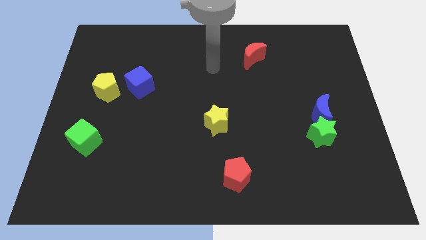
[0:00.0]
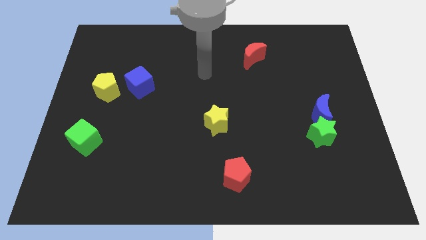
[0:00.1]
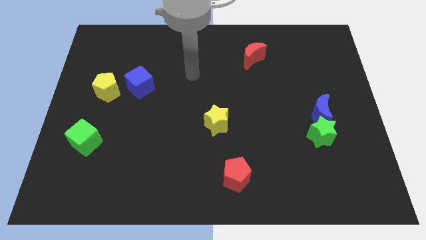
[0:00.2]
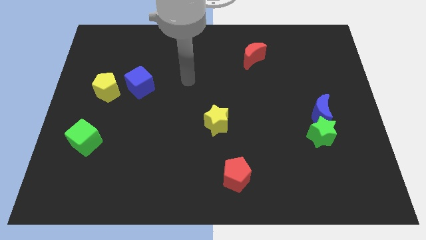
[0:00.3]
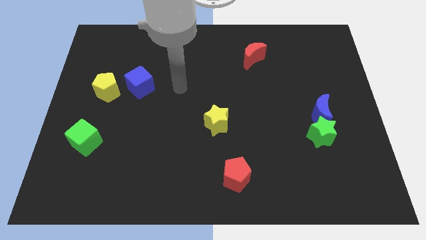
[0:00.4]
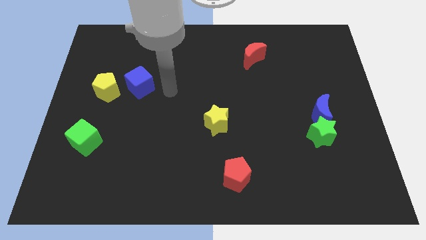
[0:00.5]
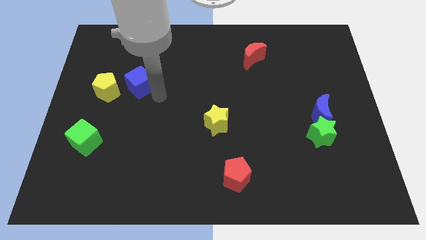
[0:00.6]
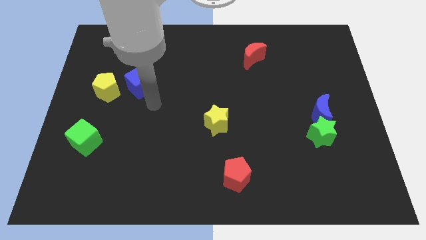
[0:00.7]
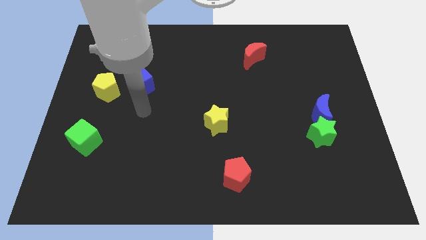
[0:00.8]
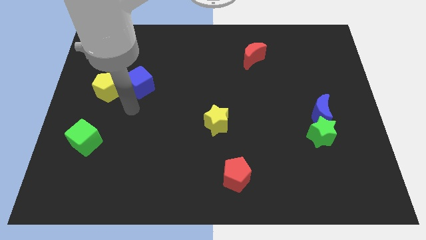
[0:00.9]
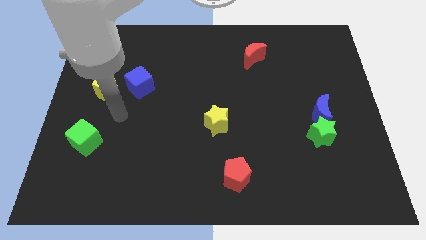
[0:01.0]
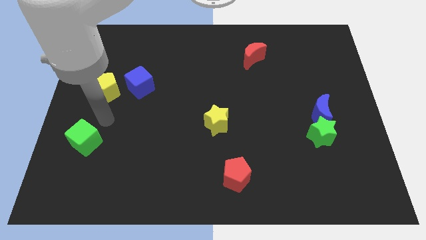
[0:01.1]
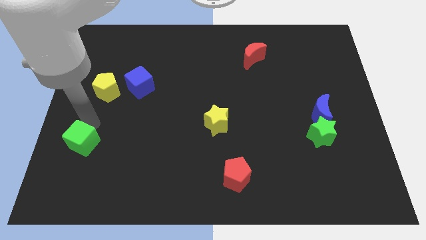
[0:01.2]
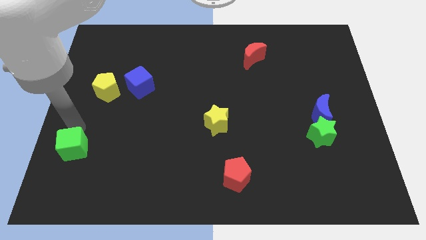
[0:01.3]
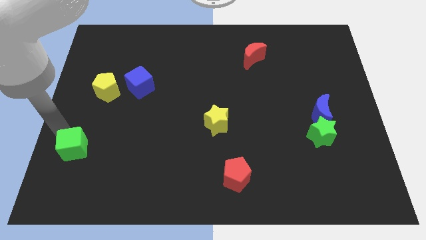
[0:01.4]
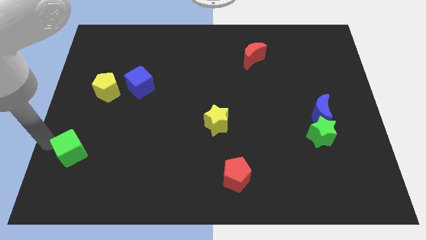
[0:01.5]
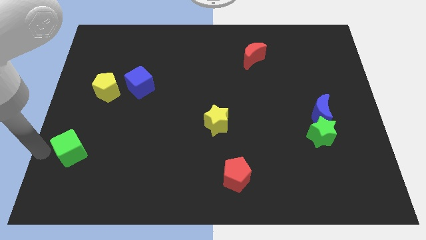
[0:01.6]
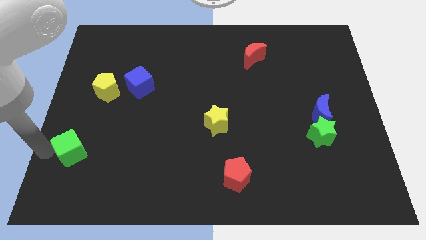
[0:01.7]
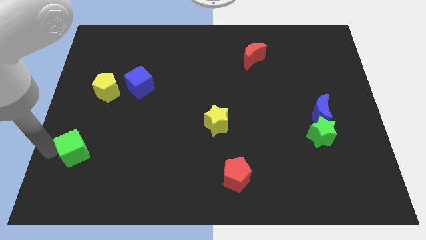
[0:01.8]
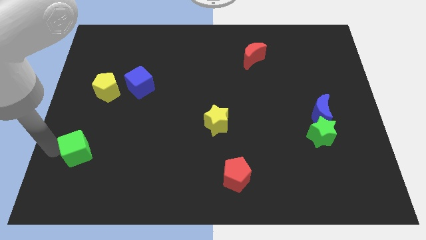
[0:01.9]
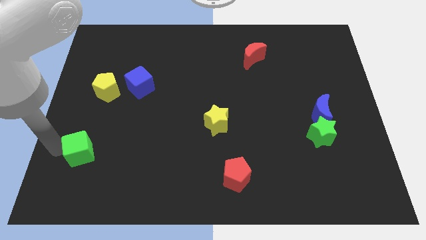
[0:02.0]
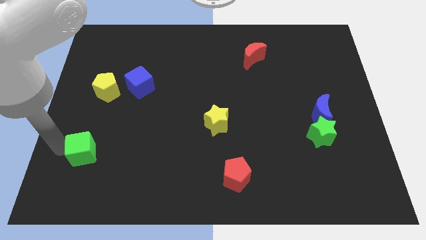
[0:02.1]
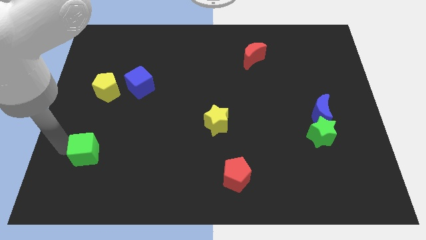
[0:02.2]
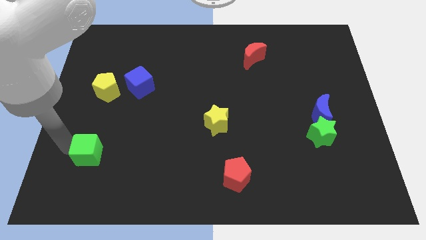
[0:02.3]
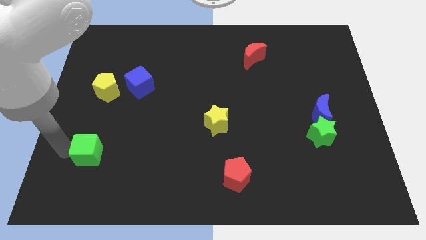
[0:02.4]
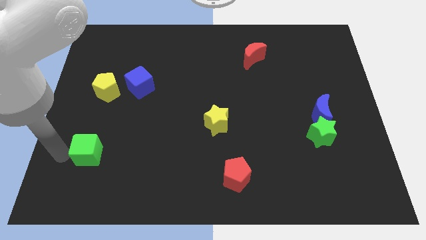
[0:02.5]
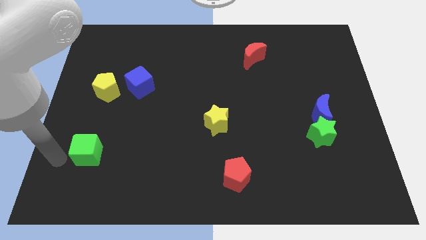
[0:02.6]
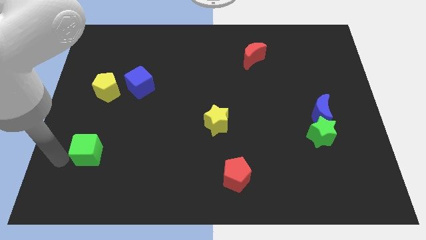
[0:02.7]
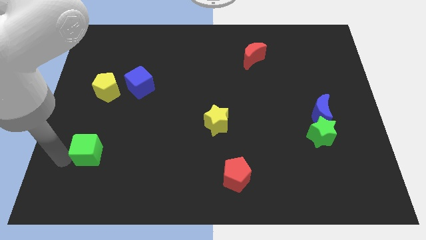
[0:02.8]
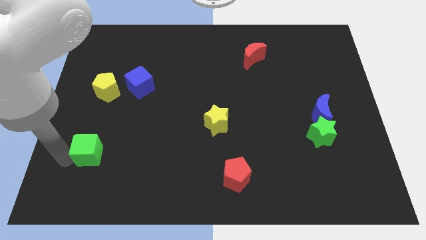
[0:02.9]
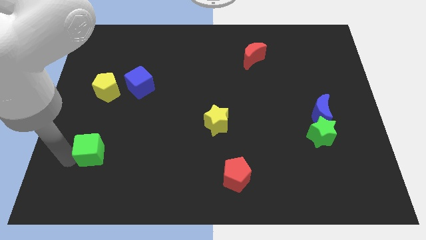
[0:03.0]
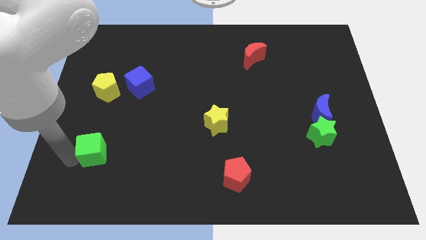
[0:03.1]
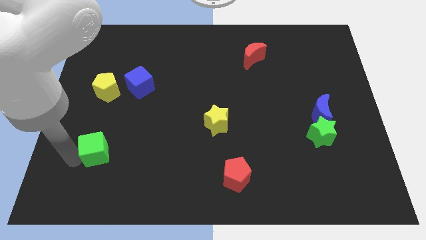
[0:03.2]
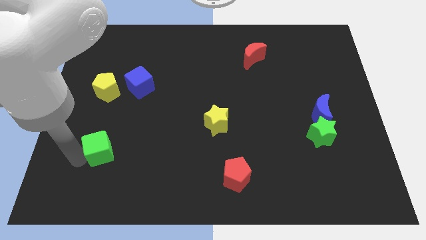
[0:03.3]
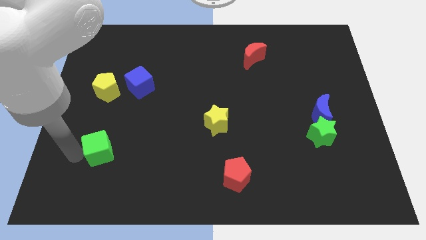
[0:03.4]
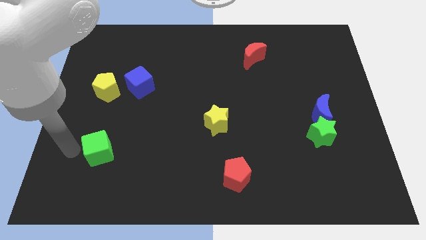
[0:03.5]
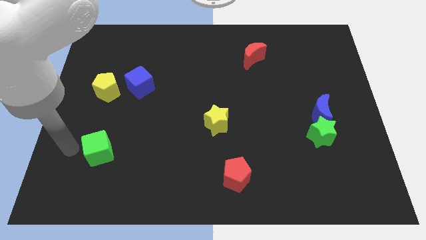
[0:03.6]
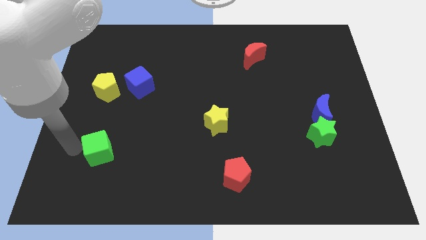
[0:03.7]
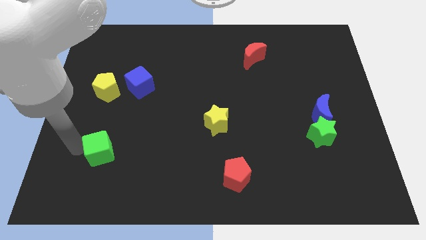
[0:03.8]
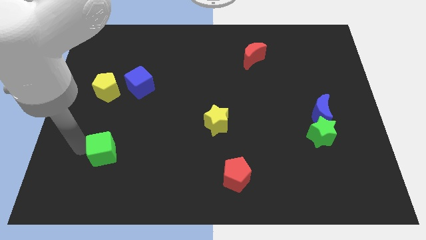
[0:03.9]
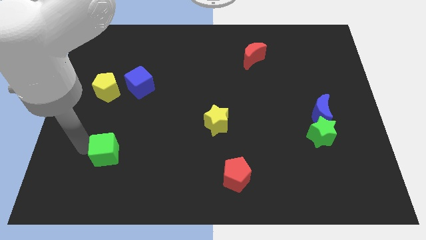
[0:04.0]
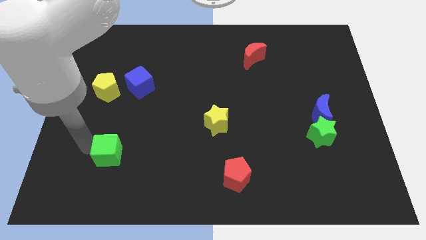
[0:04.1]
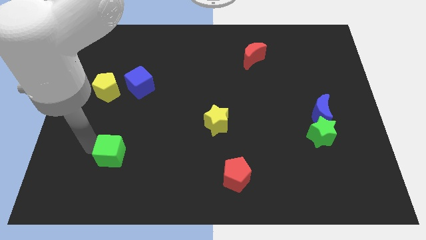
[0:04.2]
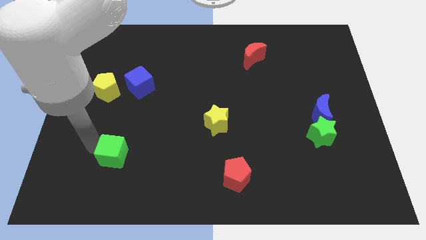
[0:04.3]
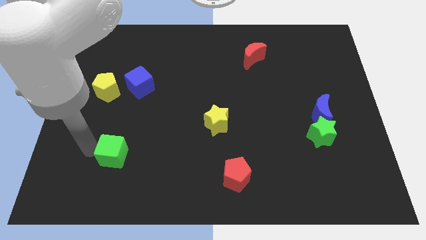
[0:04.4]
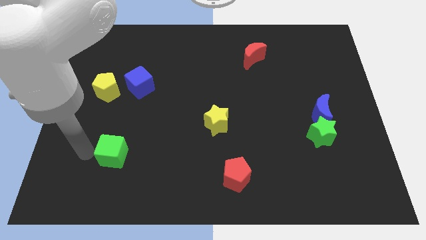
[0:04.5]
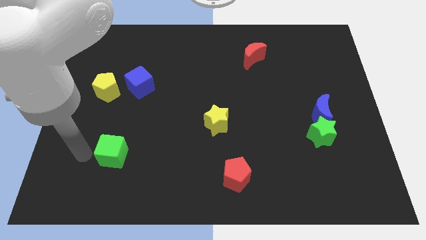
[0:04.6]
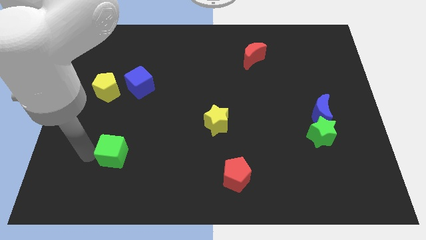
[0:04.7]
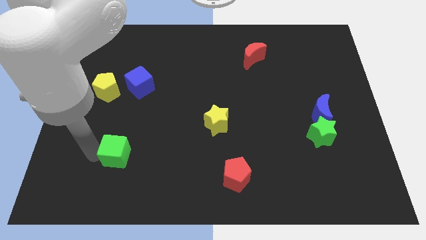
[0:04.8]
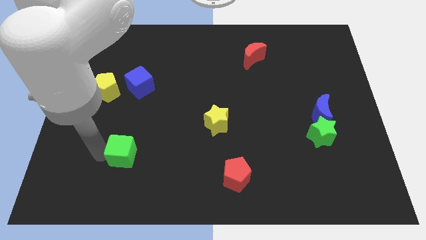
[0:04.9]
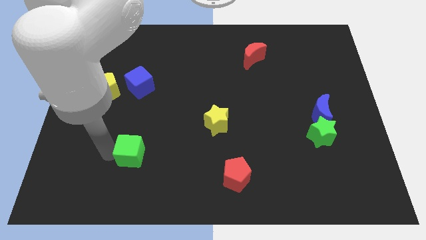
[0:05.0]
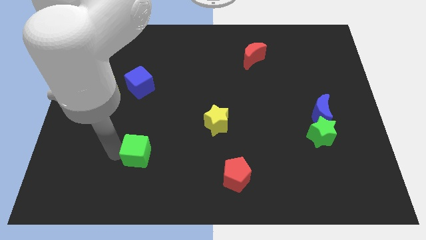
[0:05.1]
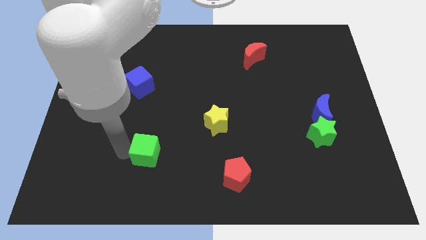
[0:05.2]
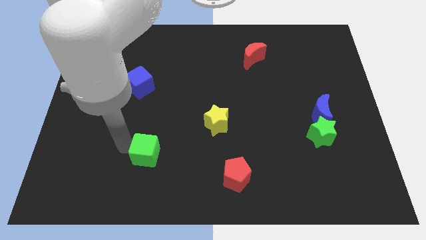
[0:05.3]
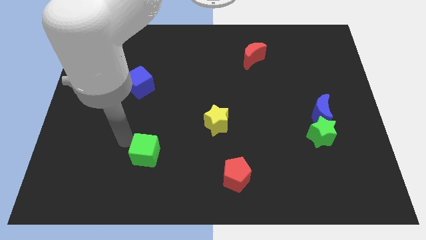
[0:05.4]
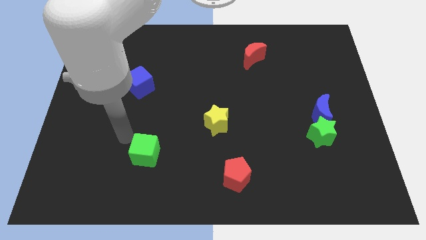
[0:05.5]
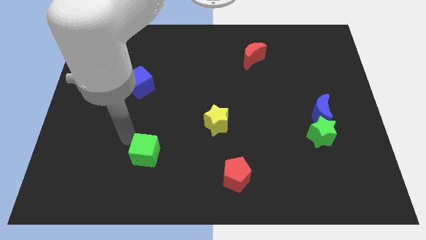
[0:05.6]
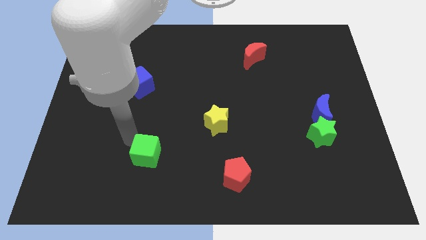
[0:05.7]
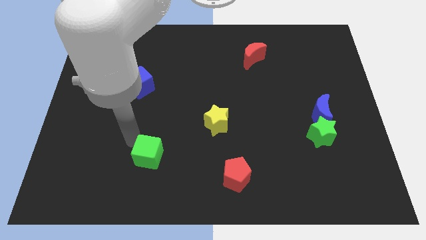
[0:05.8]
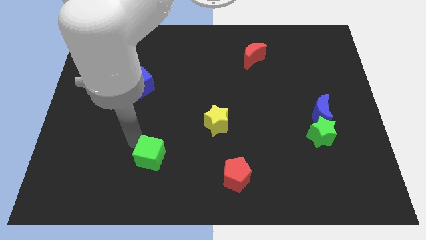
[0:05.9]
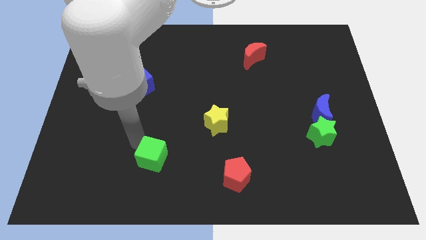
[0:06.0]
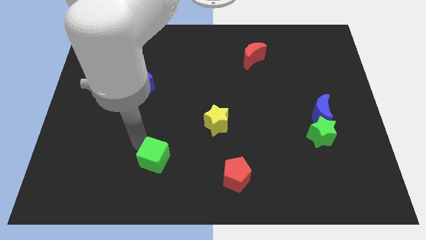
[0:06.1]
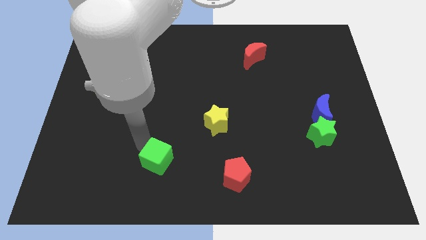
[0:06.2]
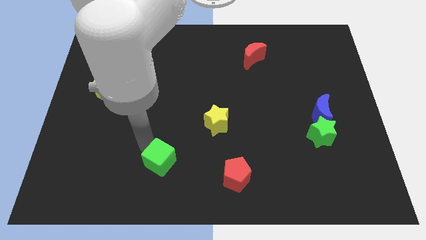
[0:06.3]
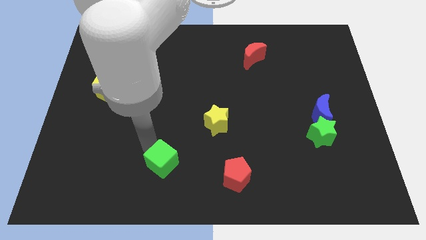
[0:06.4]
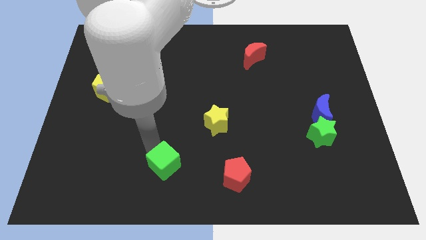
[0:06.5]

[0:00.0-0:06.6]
put the green cube to the left side of the red pentagon
